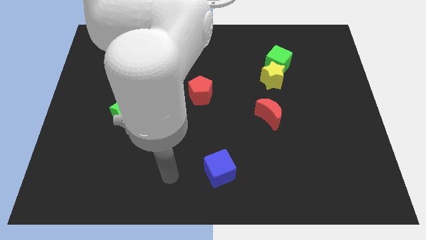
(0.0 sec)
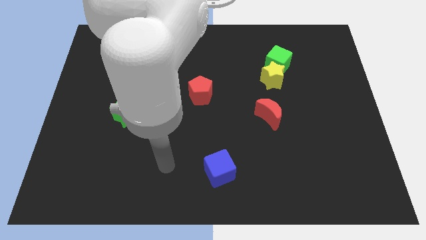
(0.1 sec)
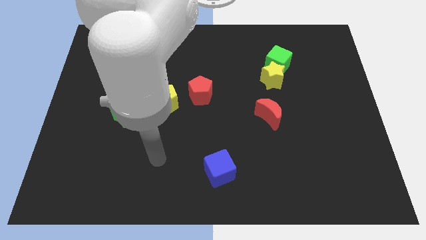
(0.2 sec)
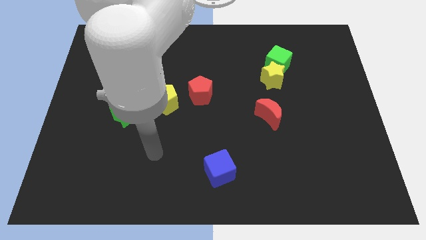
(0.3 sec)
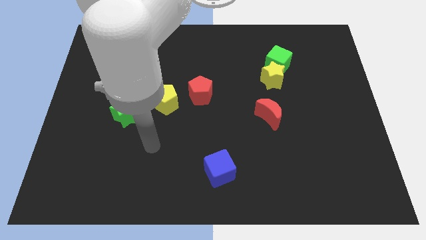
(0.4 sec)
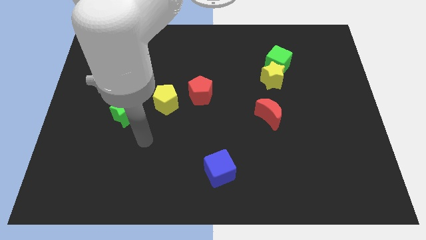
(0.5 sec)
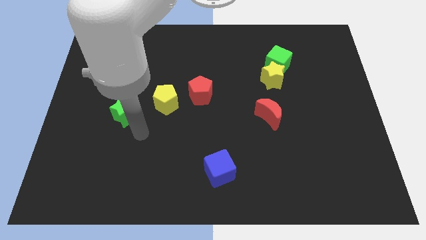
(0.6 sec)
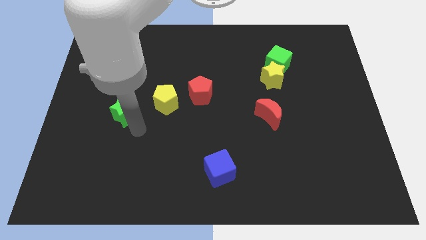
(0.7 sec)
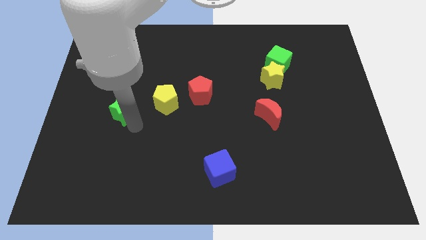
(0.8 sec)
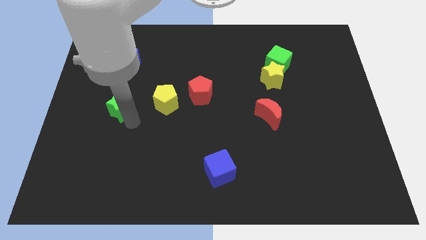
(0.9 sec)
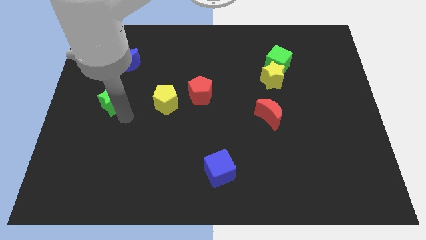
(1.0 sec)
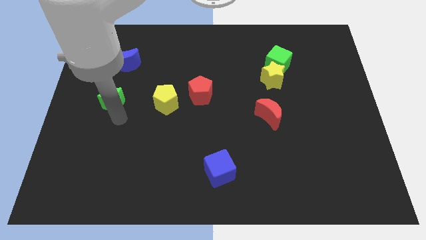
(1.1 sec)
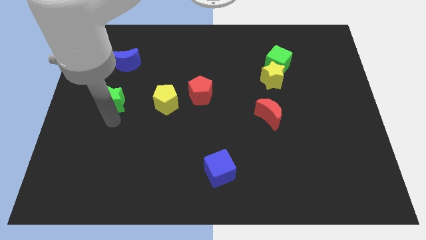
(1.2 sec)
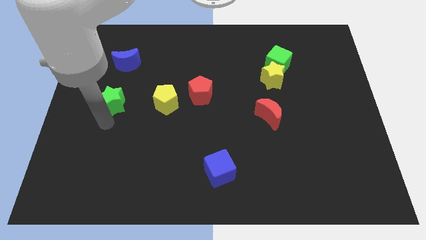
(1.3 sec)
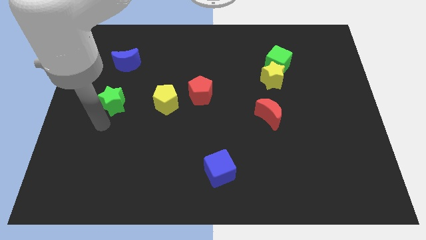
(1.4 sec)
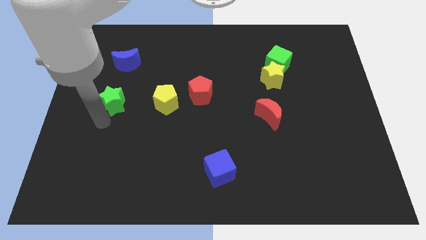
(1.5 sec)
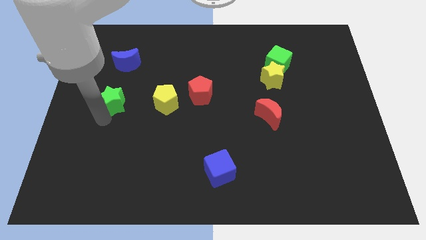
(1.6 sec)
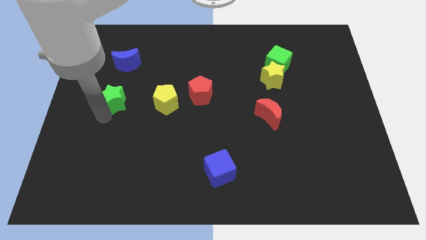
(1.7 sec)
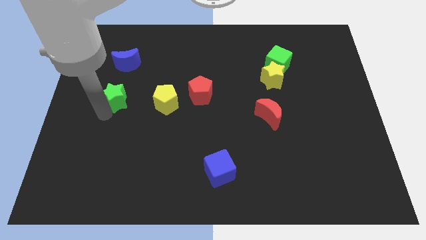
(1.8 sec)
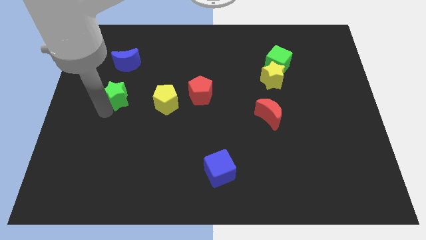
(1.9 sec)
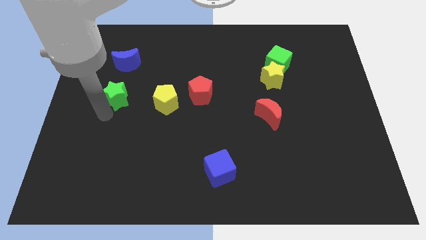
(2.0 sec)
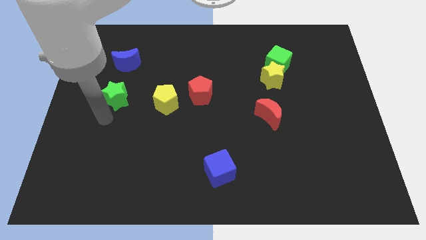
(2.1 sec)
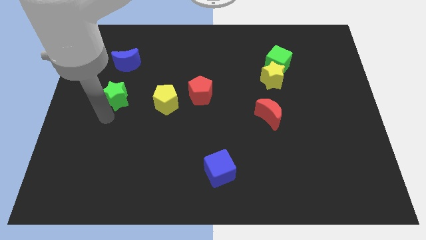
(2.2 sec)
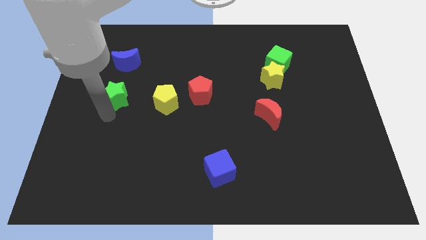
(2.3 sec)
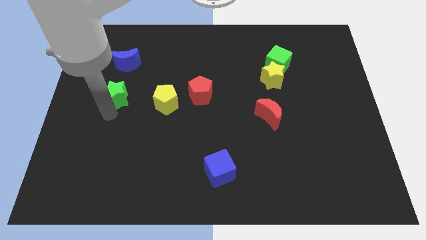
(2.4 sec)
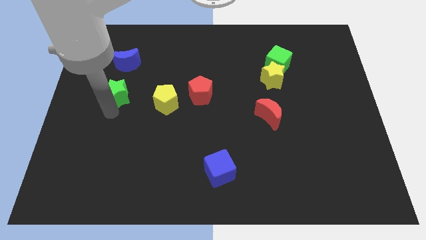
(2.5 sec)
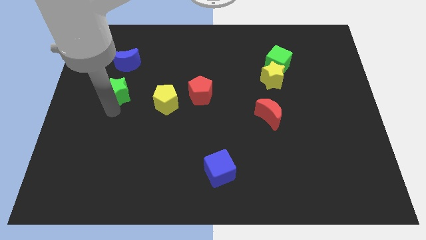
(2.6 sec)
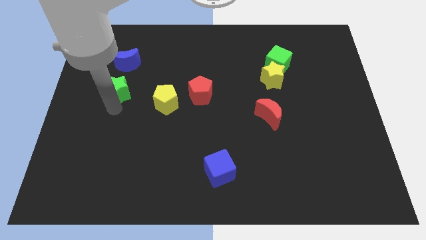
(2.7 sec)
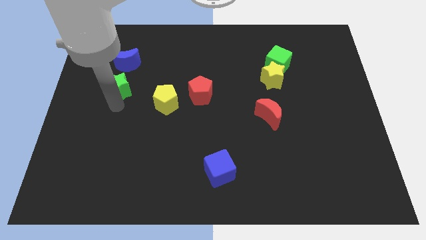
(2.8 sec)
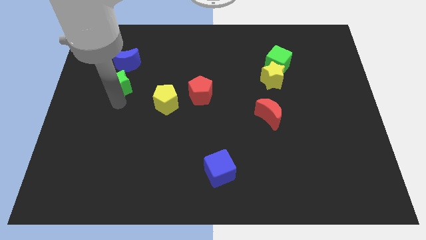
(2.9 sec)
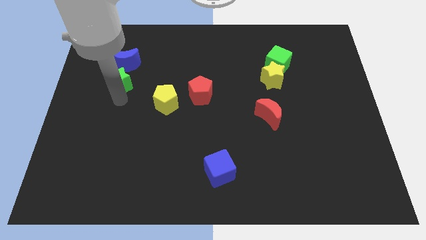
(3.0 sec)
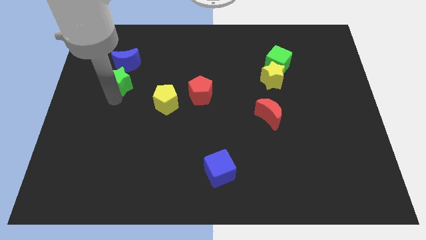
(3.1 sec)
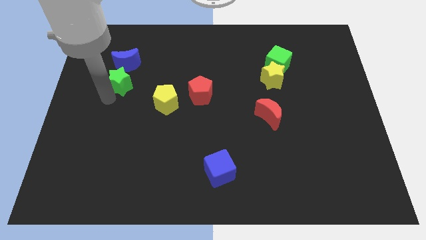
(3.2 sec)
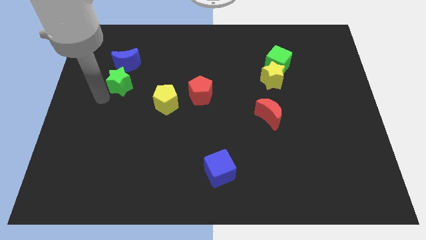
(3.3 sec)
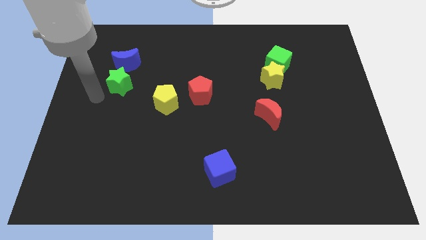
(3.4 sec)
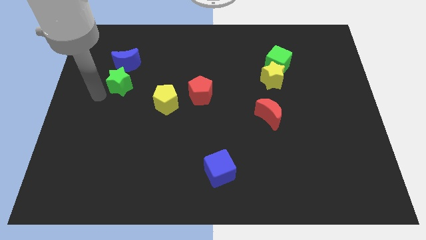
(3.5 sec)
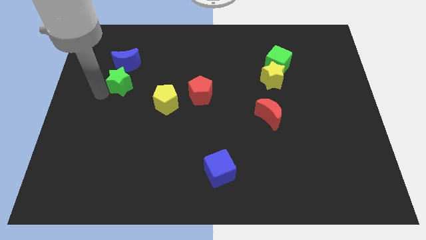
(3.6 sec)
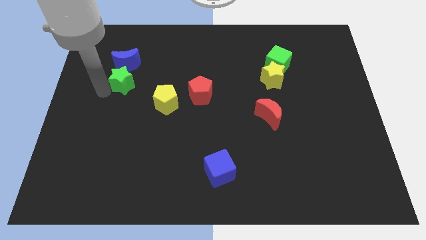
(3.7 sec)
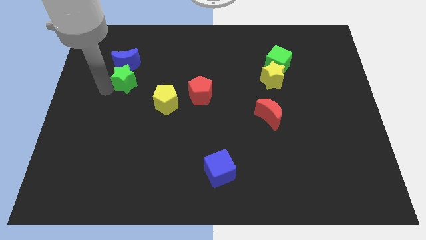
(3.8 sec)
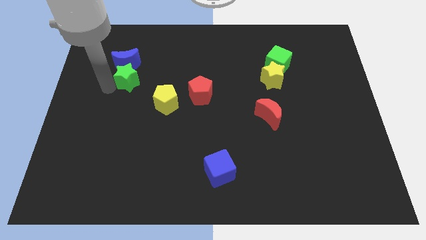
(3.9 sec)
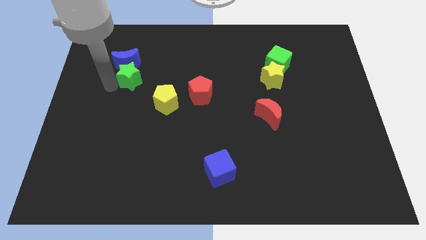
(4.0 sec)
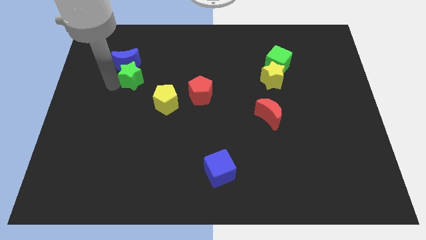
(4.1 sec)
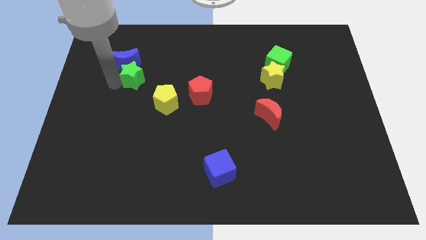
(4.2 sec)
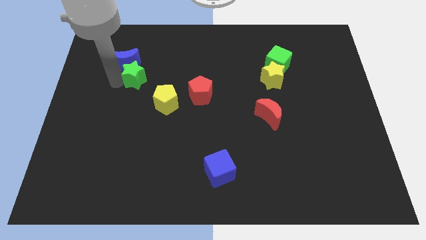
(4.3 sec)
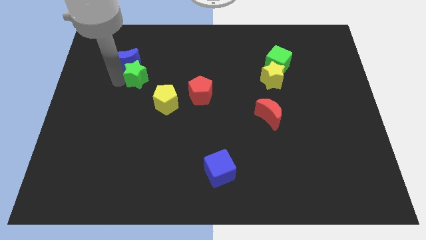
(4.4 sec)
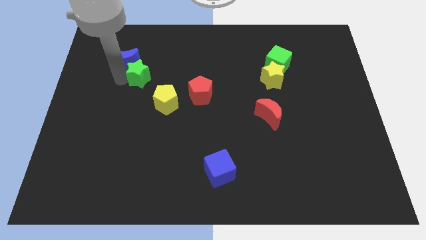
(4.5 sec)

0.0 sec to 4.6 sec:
slightly slide the green star up and right

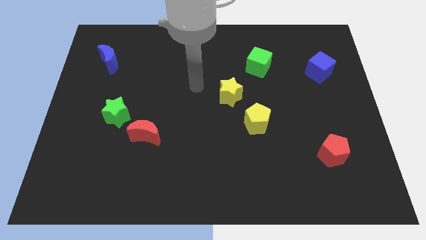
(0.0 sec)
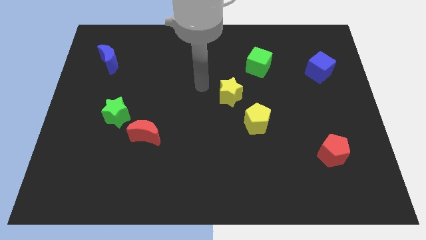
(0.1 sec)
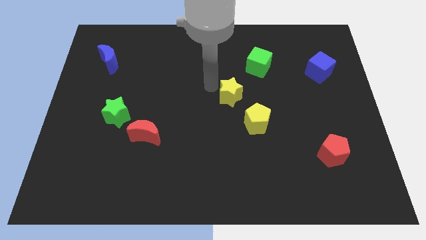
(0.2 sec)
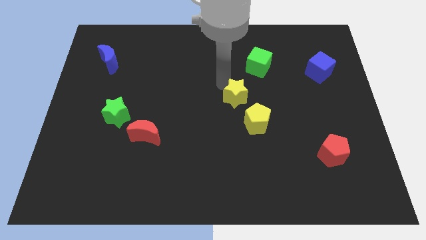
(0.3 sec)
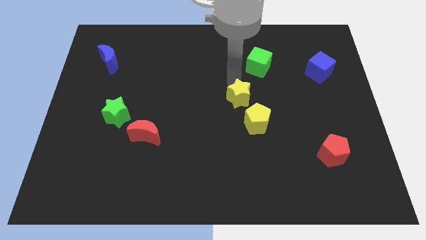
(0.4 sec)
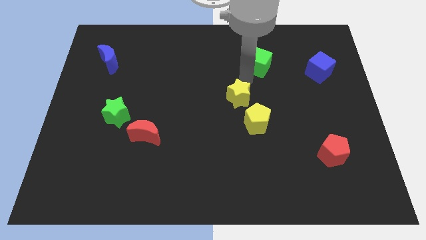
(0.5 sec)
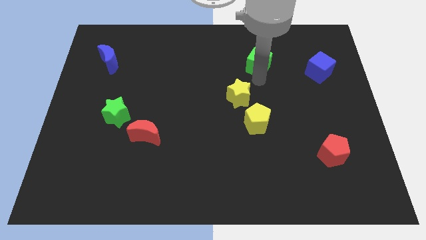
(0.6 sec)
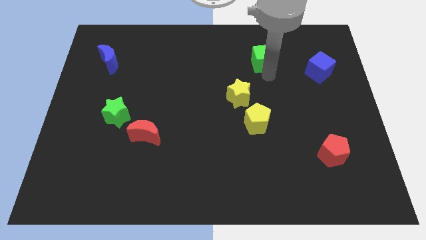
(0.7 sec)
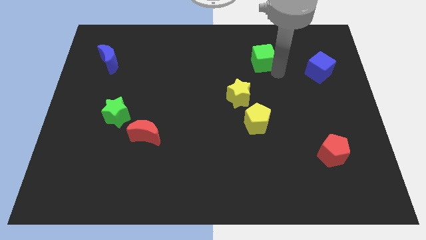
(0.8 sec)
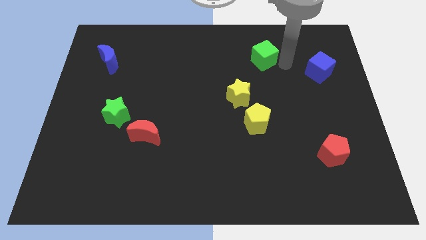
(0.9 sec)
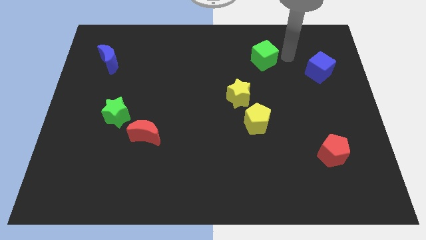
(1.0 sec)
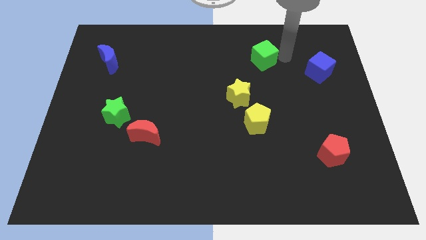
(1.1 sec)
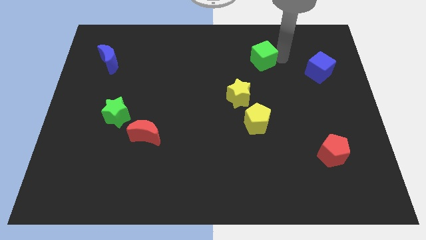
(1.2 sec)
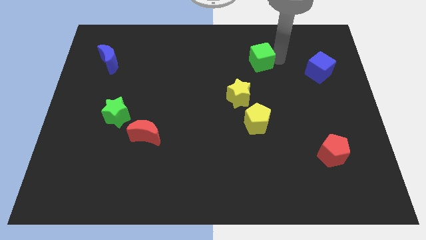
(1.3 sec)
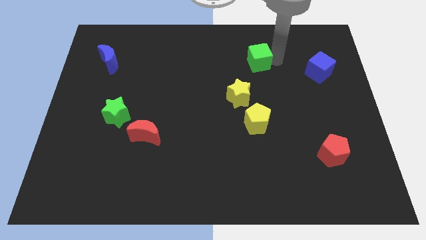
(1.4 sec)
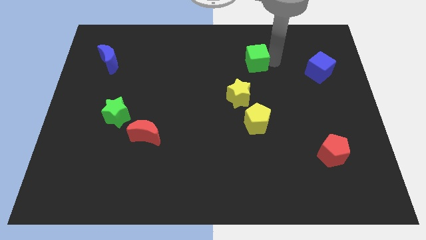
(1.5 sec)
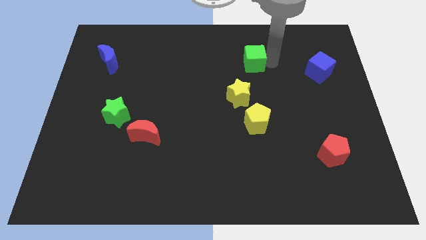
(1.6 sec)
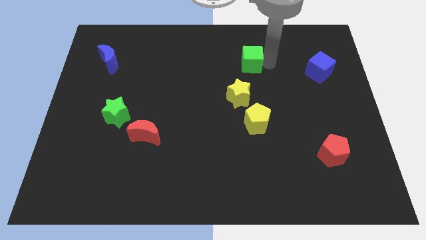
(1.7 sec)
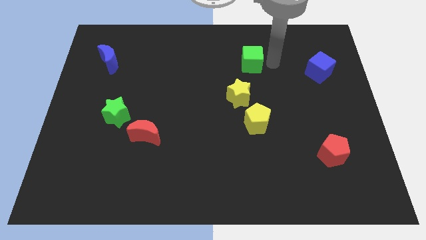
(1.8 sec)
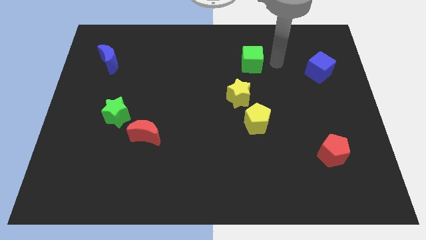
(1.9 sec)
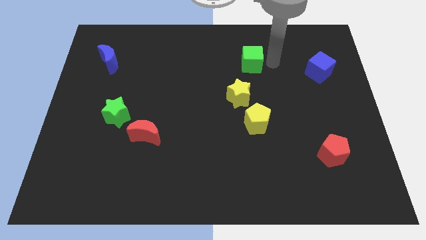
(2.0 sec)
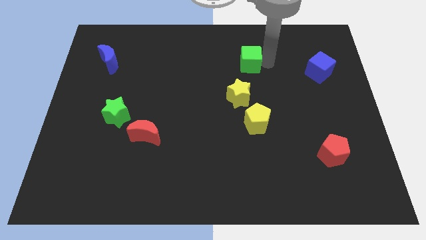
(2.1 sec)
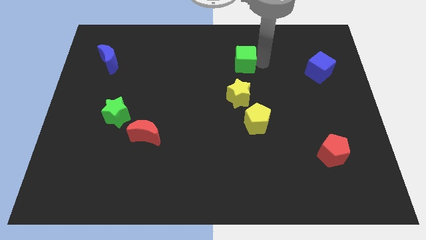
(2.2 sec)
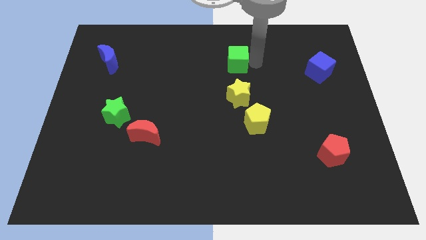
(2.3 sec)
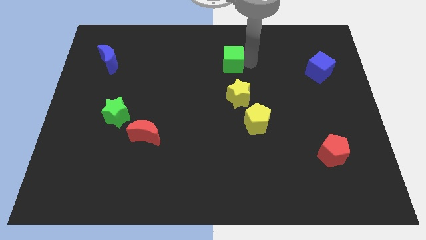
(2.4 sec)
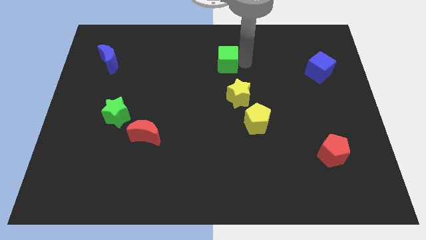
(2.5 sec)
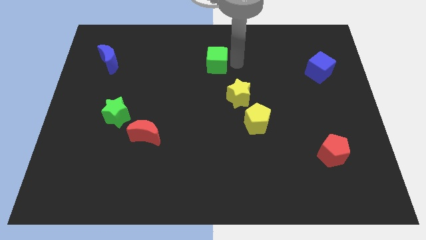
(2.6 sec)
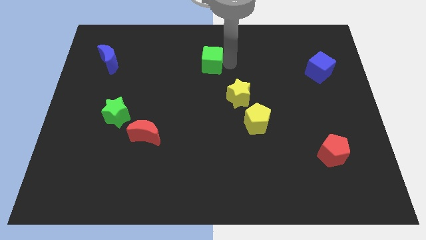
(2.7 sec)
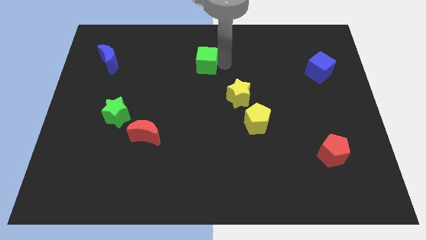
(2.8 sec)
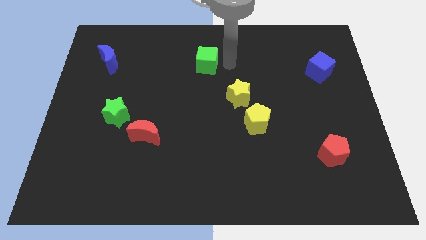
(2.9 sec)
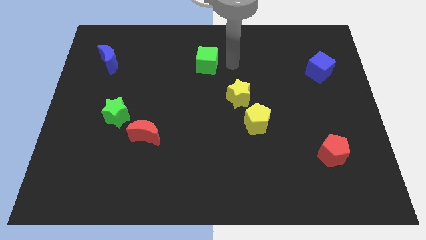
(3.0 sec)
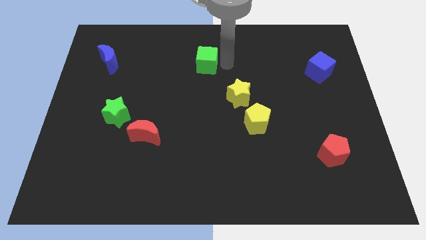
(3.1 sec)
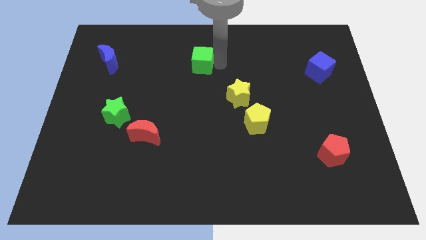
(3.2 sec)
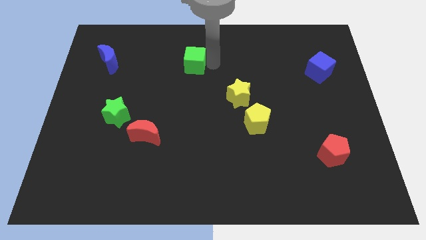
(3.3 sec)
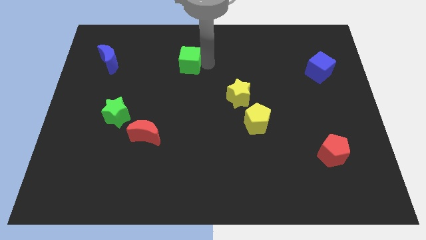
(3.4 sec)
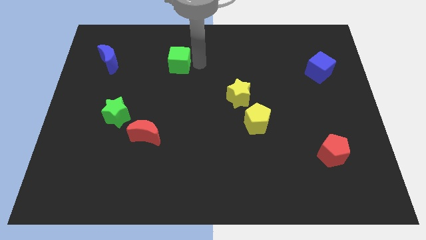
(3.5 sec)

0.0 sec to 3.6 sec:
slide the green cube to the left
